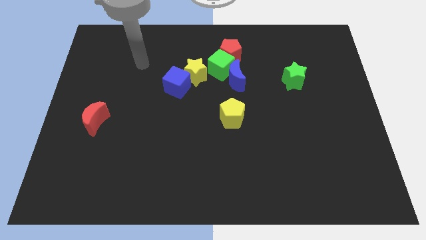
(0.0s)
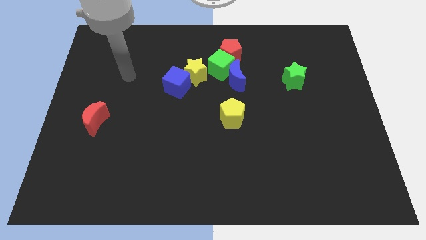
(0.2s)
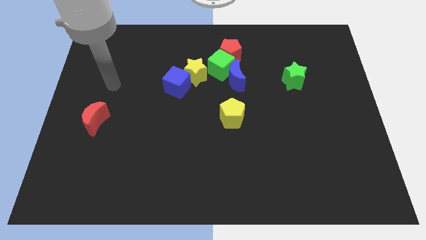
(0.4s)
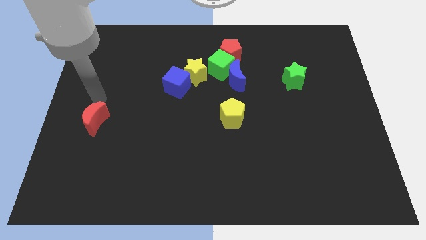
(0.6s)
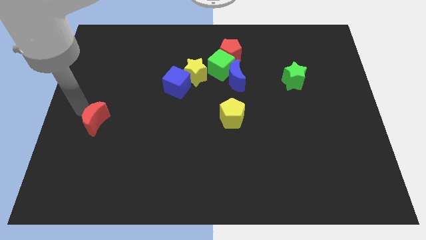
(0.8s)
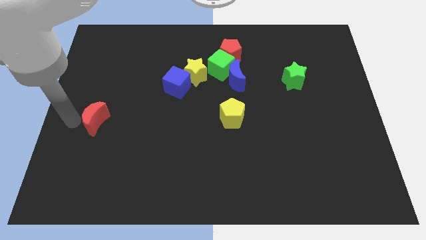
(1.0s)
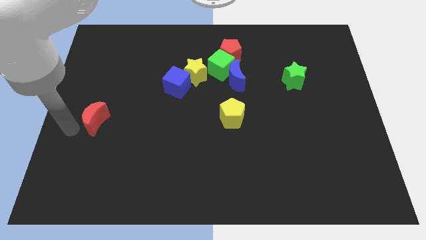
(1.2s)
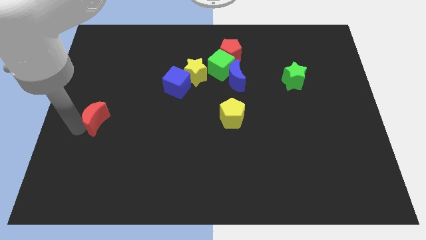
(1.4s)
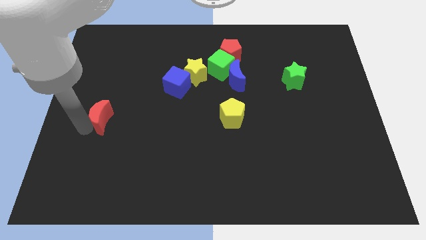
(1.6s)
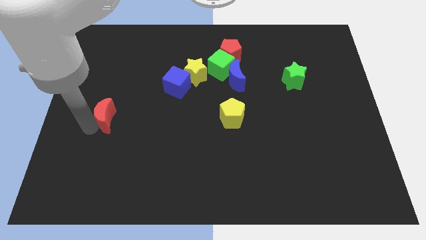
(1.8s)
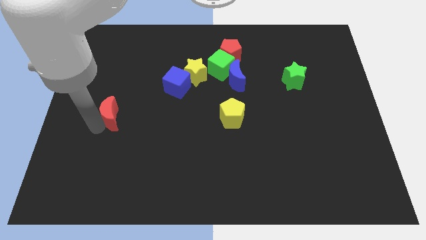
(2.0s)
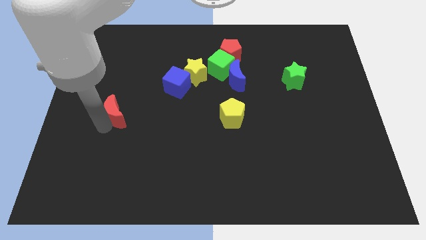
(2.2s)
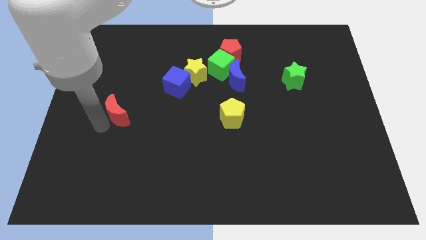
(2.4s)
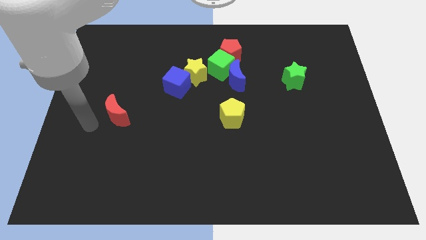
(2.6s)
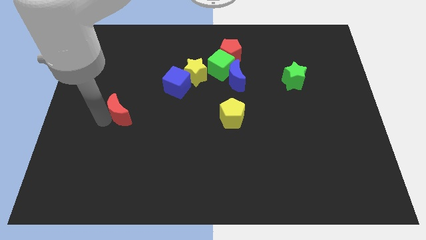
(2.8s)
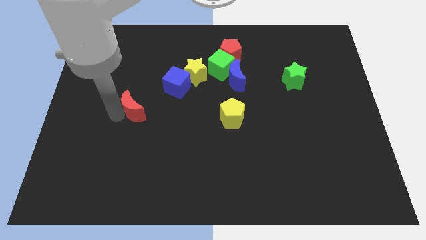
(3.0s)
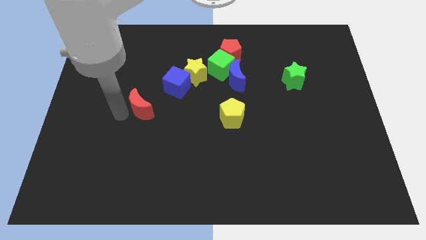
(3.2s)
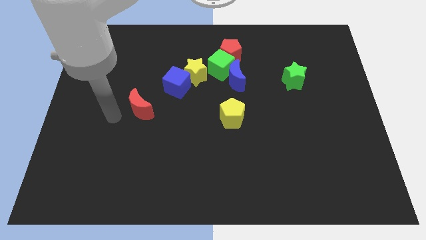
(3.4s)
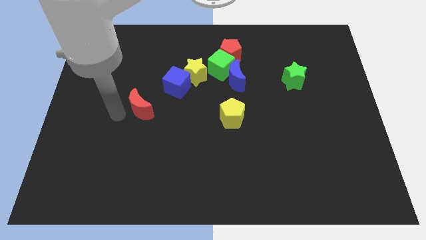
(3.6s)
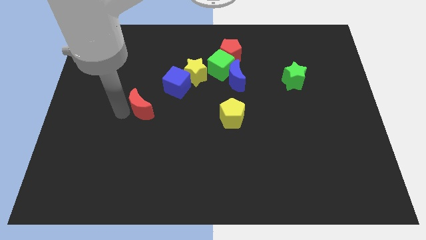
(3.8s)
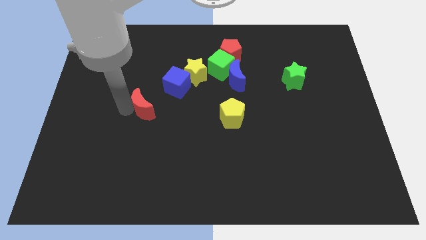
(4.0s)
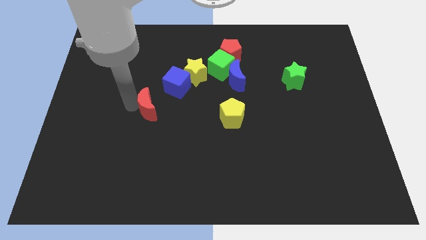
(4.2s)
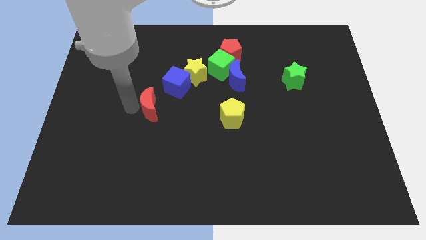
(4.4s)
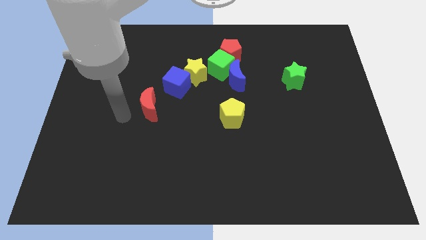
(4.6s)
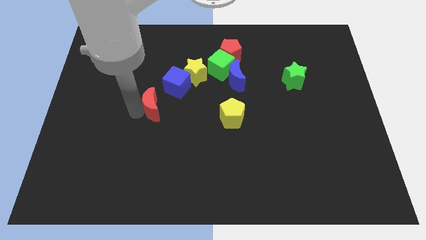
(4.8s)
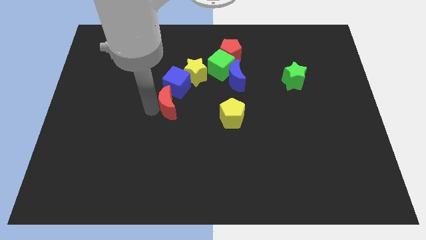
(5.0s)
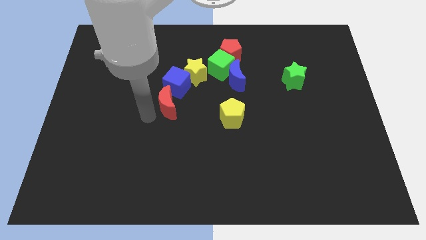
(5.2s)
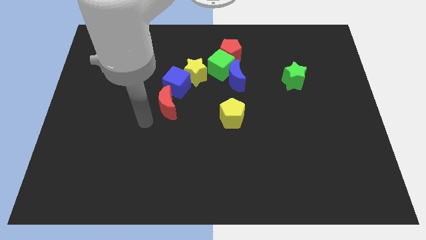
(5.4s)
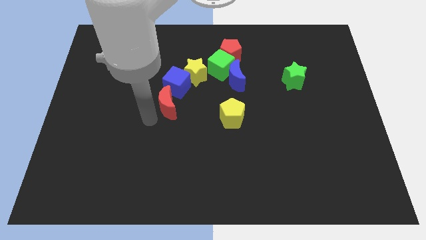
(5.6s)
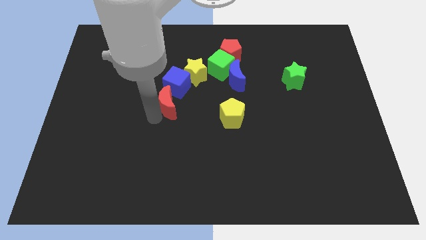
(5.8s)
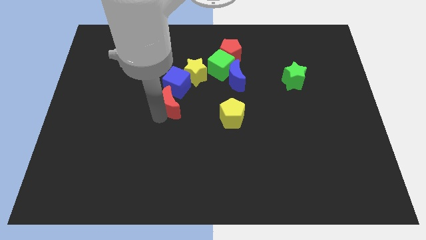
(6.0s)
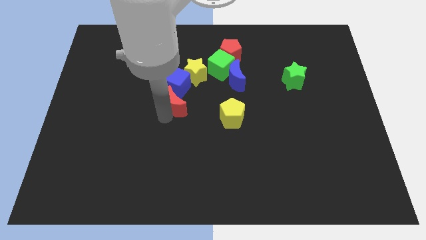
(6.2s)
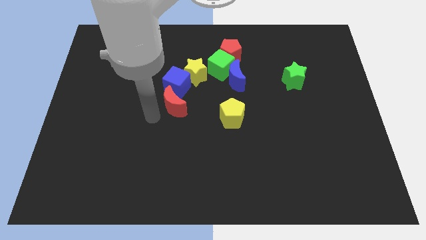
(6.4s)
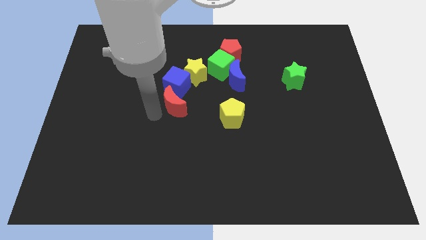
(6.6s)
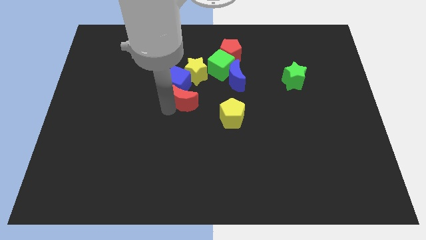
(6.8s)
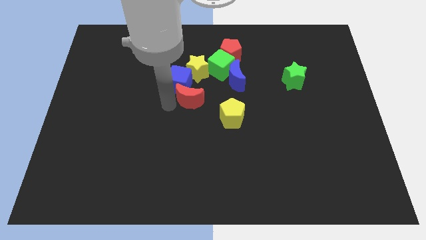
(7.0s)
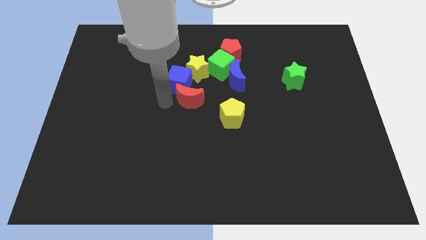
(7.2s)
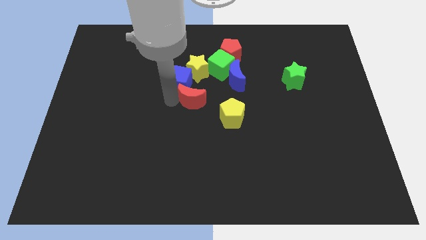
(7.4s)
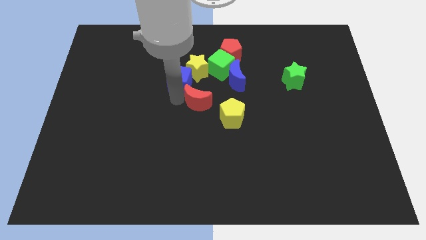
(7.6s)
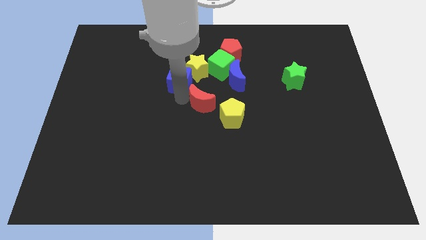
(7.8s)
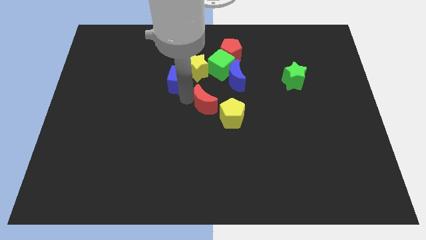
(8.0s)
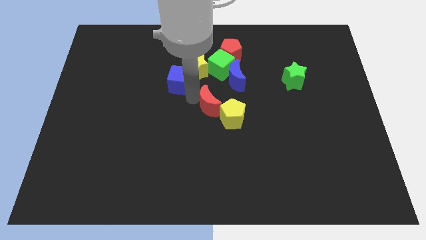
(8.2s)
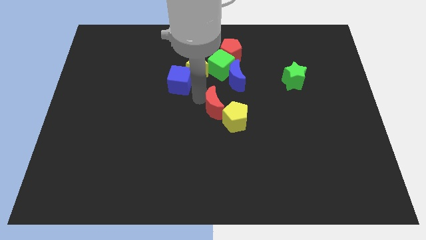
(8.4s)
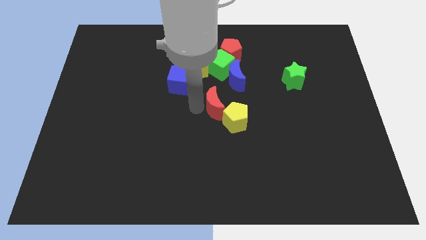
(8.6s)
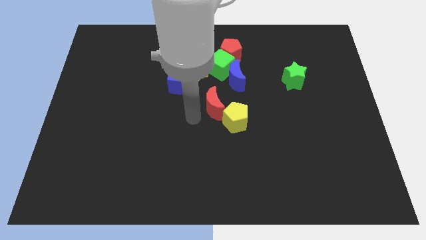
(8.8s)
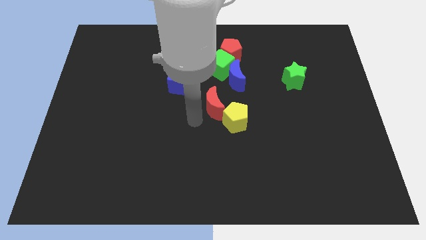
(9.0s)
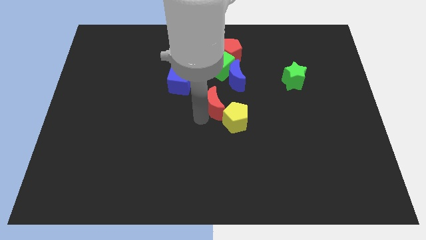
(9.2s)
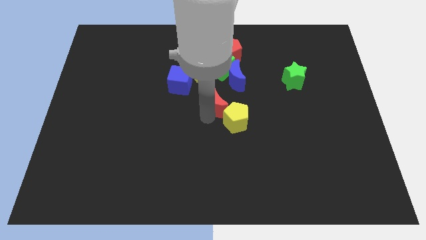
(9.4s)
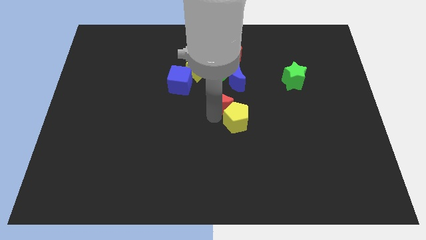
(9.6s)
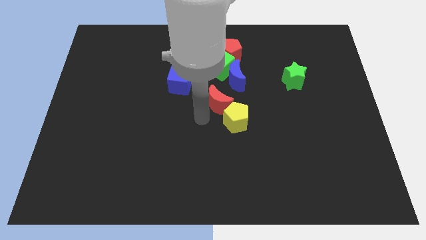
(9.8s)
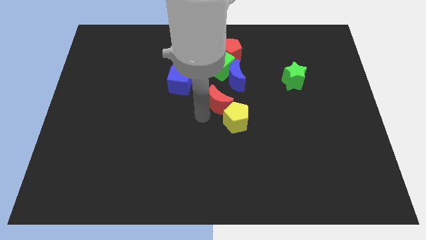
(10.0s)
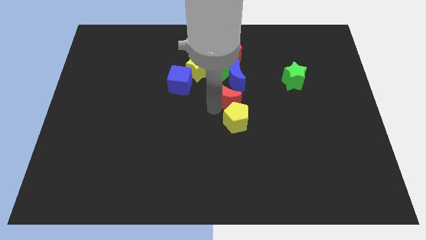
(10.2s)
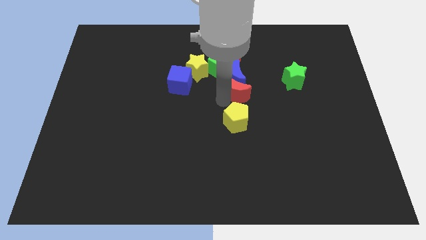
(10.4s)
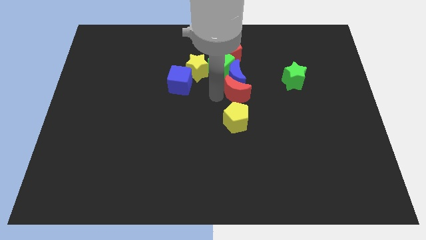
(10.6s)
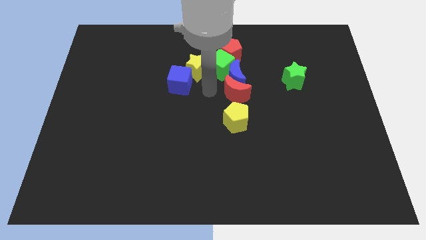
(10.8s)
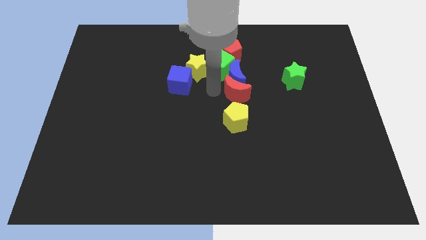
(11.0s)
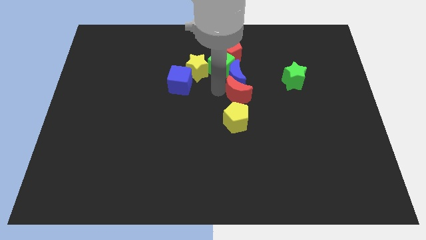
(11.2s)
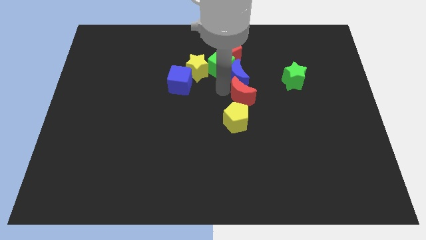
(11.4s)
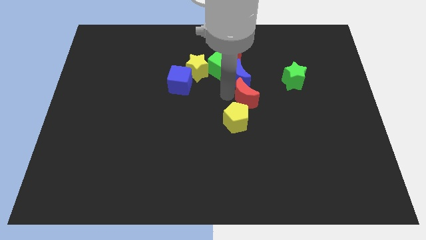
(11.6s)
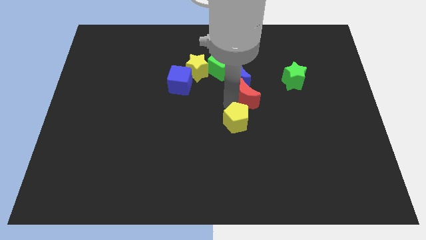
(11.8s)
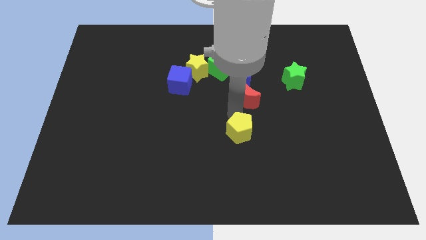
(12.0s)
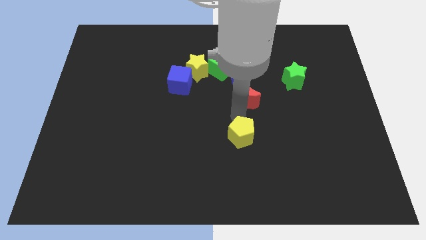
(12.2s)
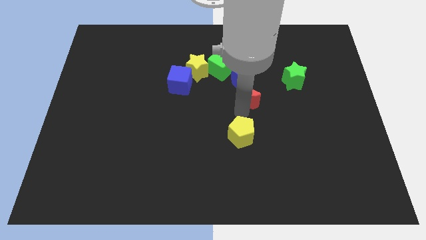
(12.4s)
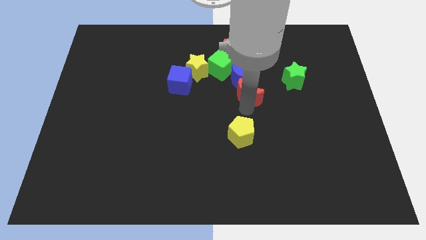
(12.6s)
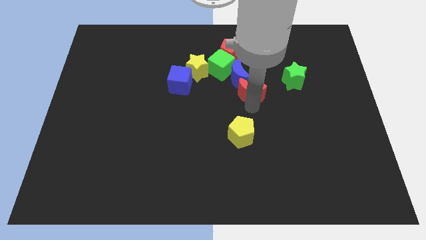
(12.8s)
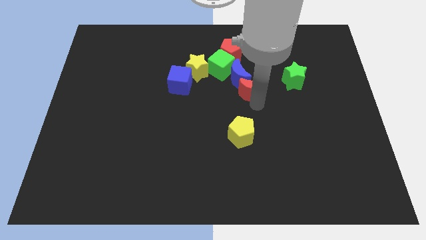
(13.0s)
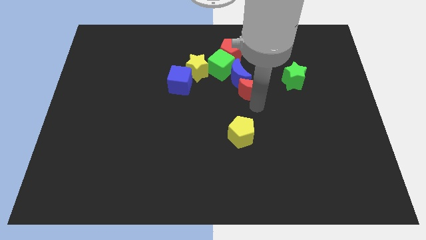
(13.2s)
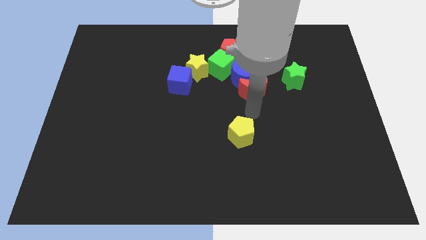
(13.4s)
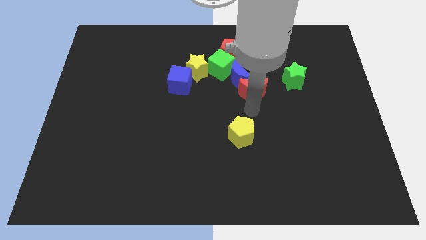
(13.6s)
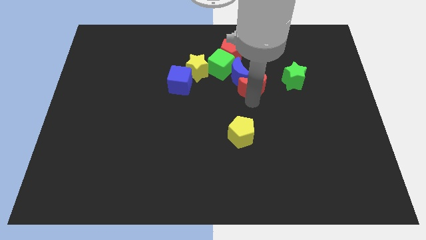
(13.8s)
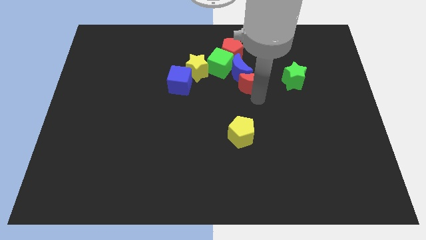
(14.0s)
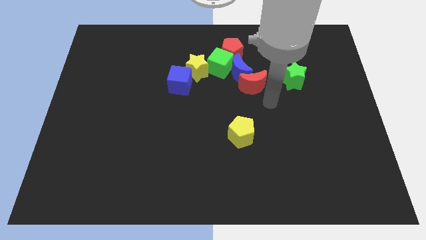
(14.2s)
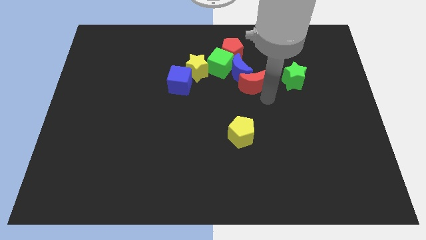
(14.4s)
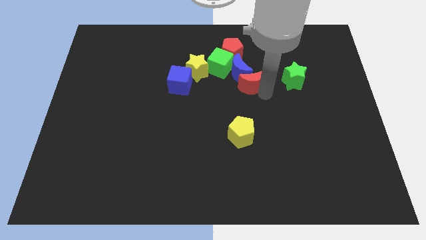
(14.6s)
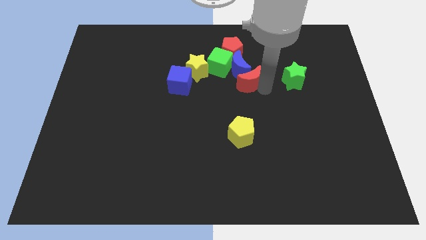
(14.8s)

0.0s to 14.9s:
move the red moon to the right side of the yellow star
